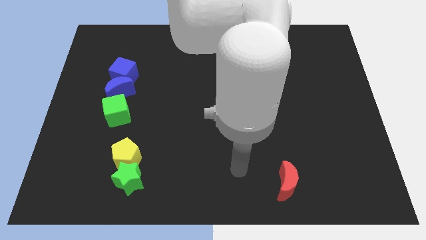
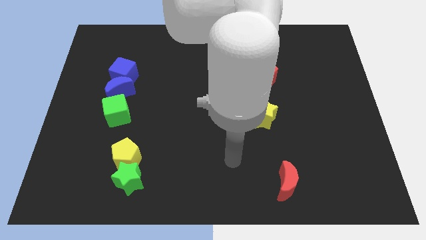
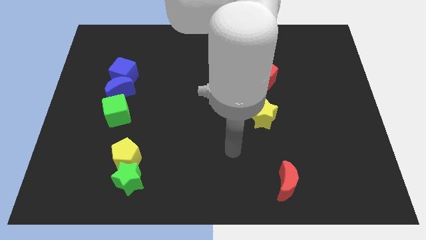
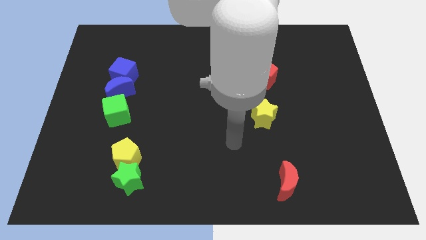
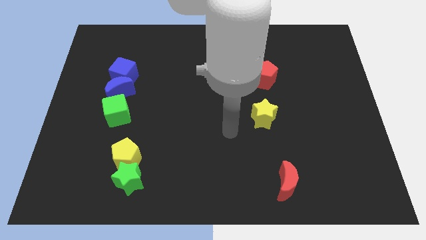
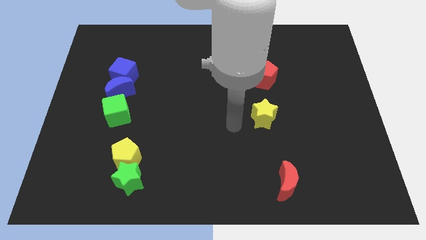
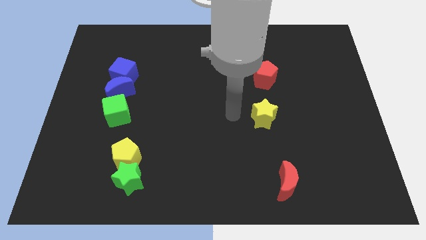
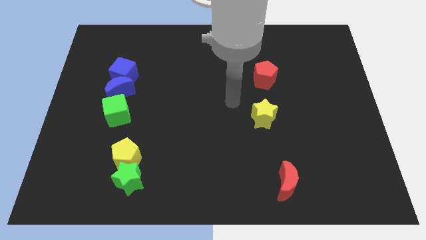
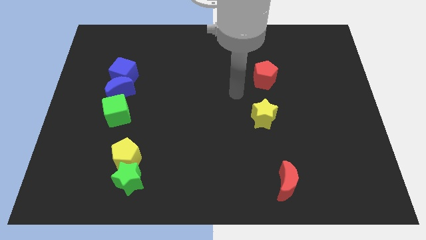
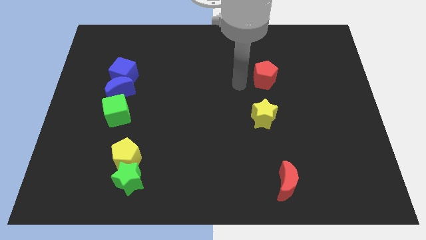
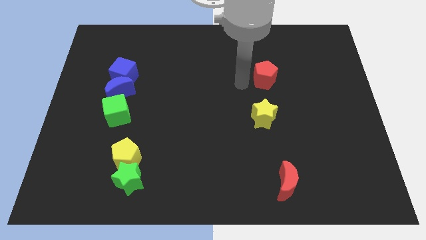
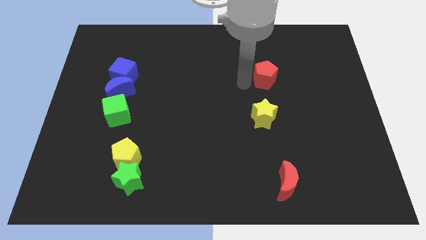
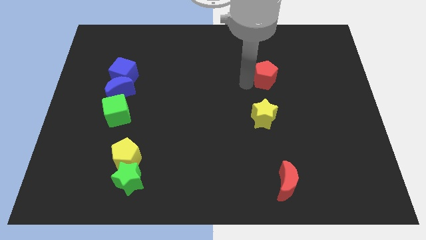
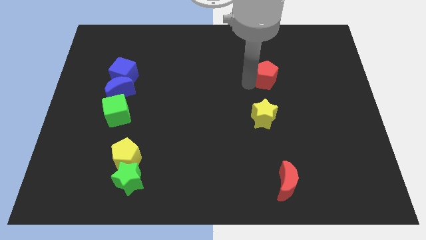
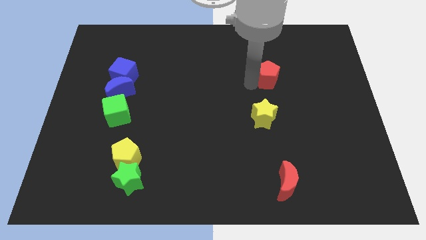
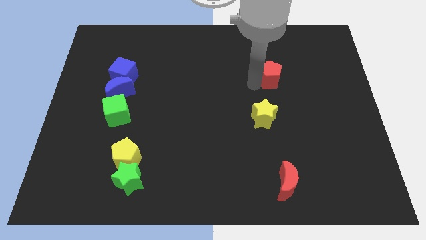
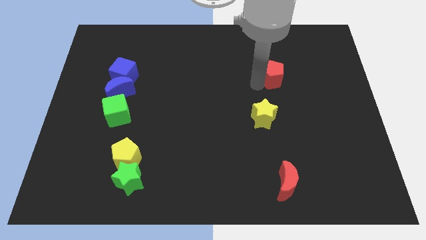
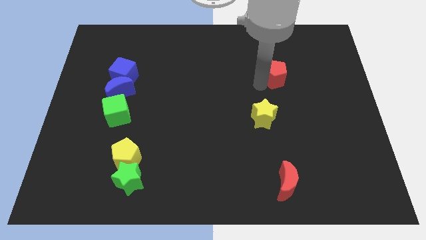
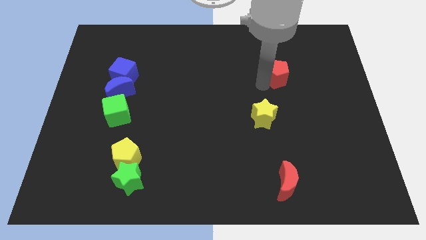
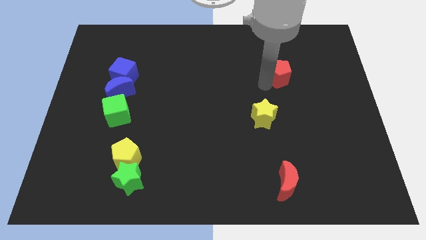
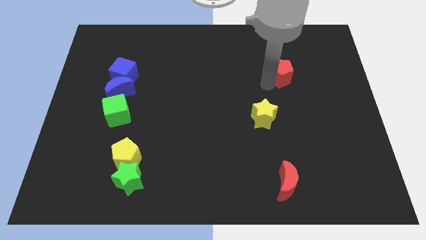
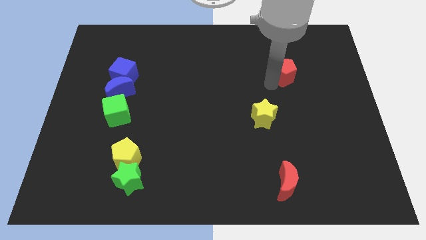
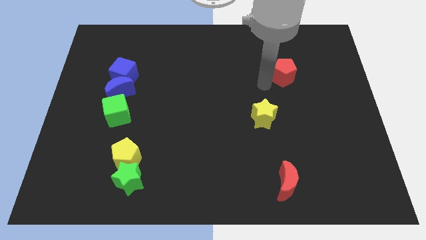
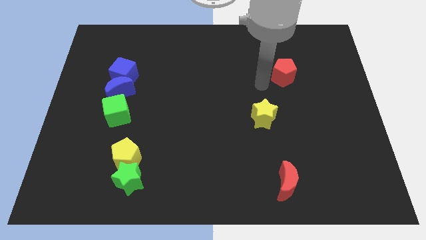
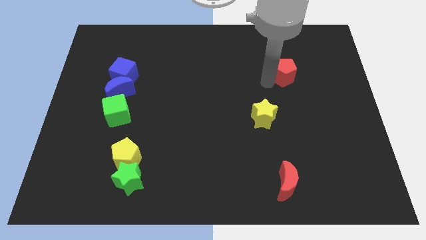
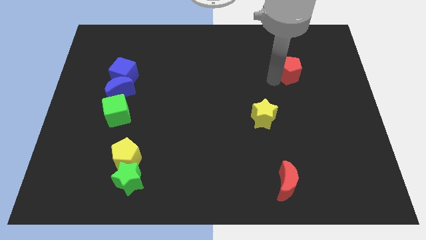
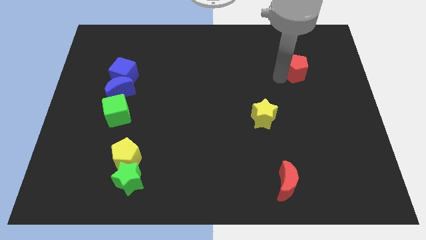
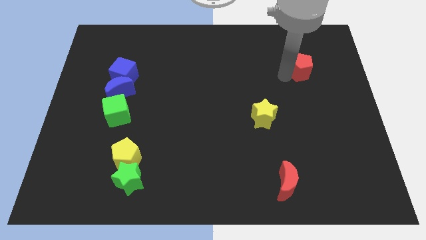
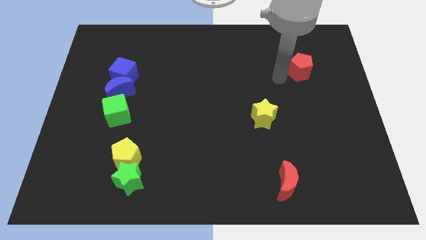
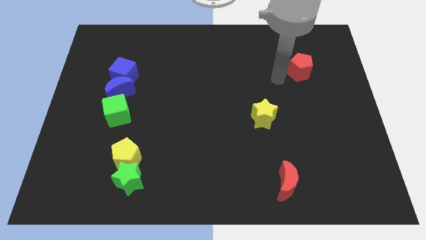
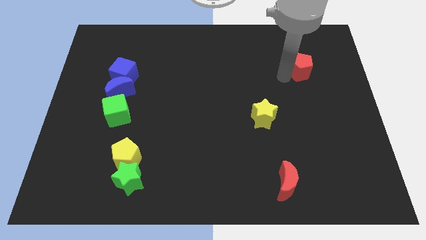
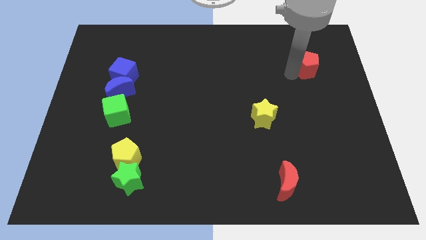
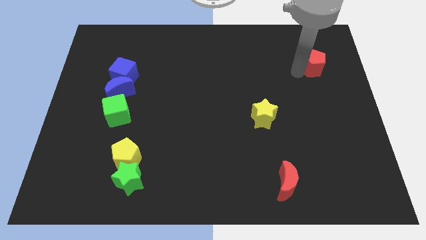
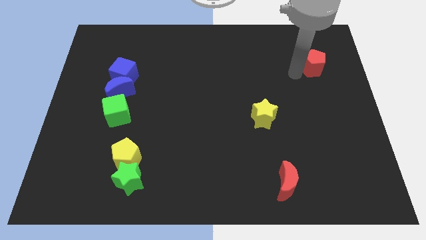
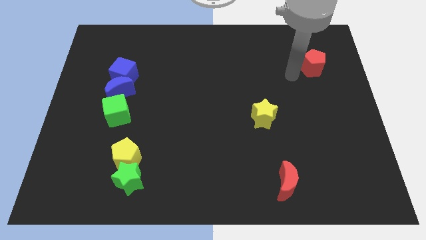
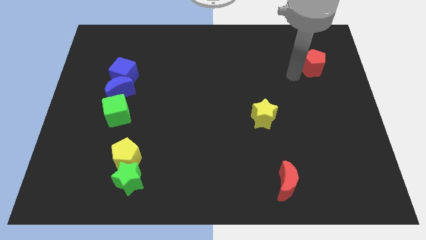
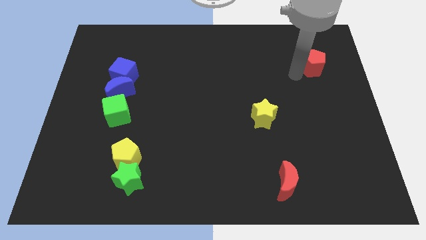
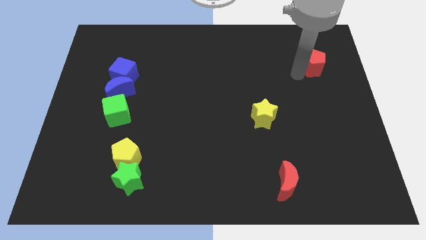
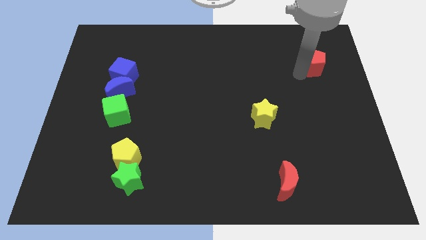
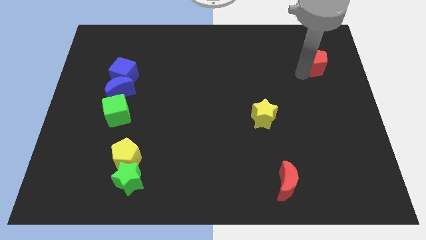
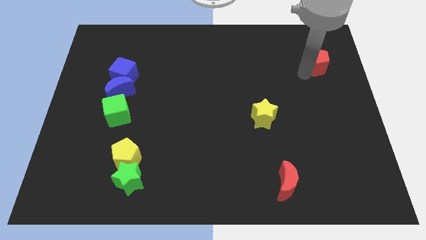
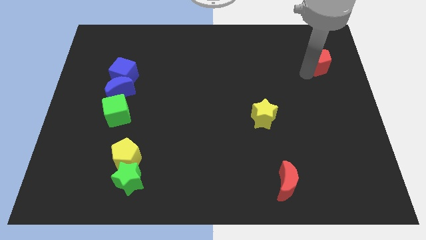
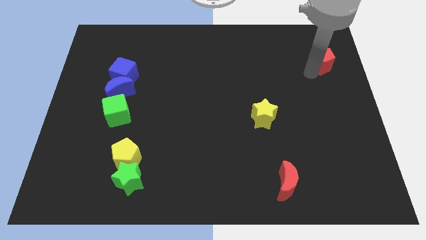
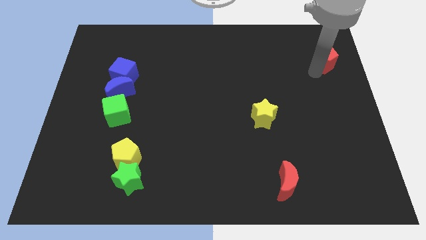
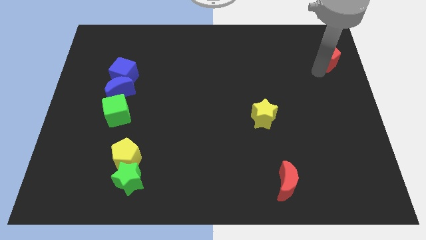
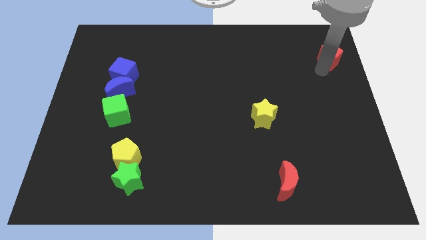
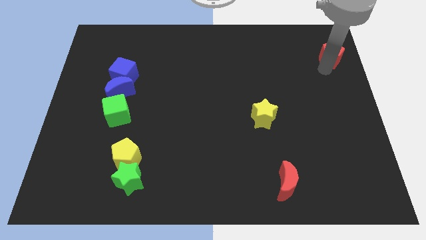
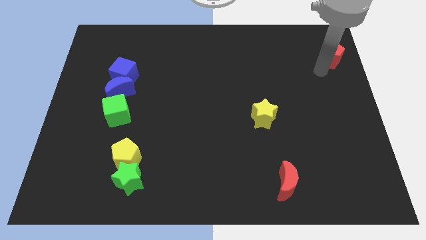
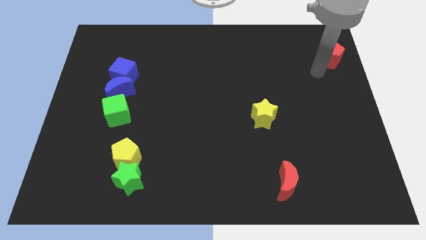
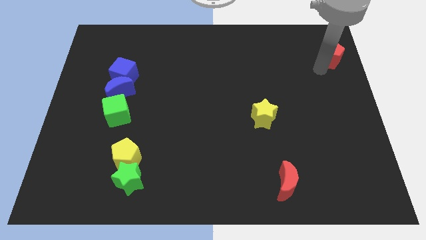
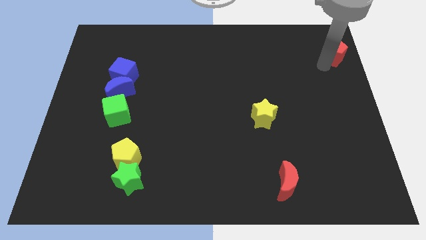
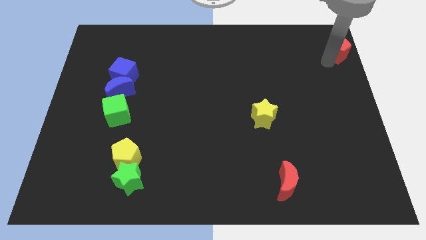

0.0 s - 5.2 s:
slide the red pentagon to the top right of the board

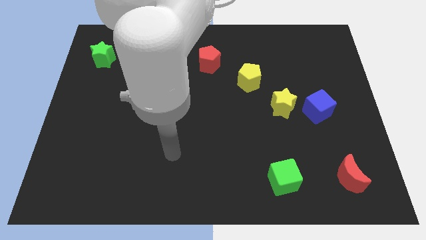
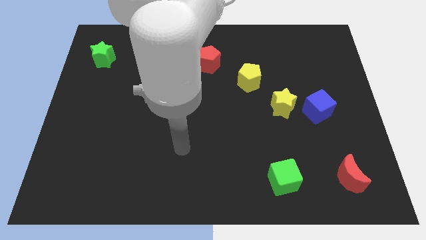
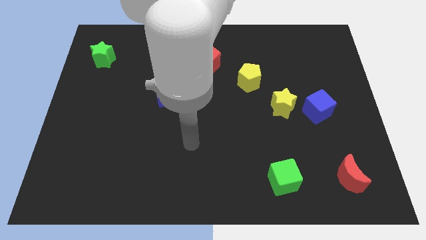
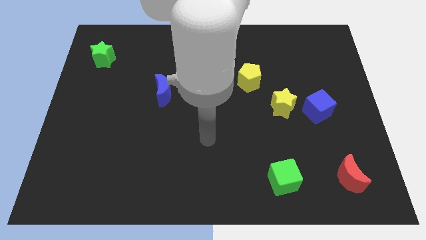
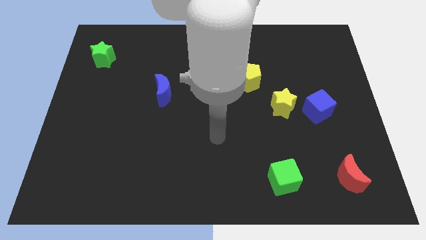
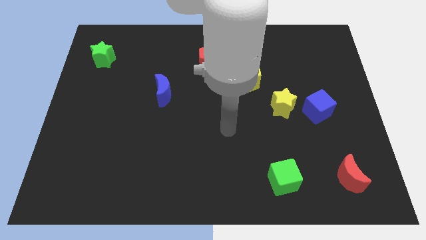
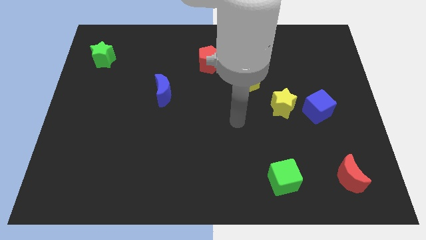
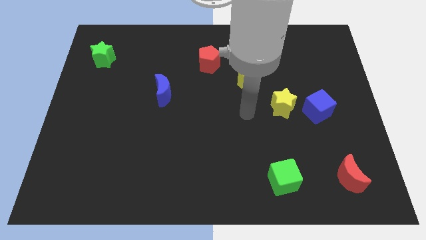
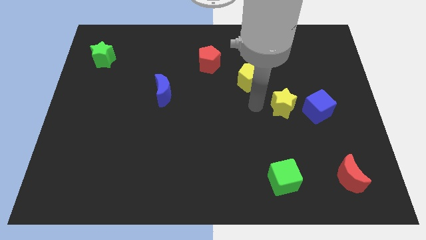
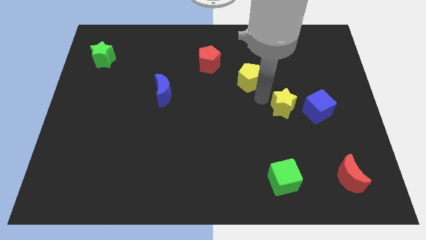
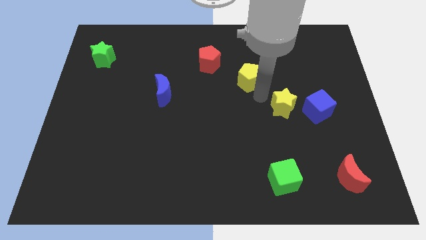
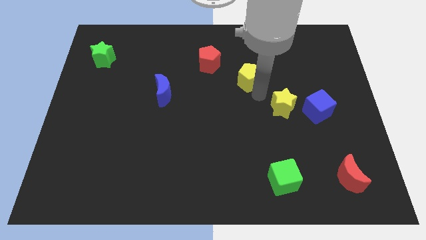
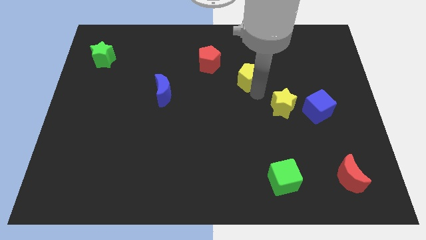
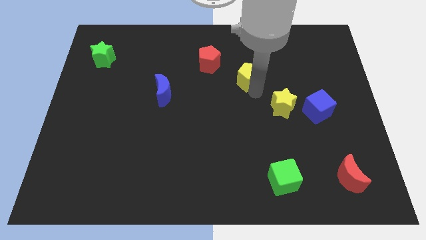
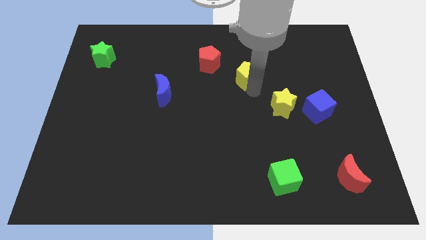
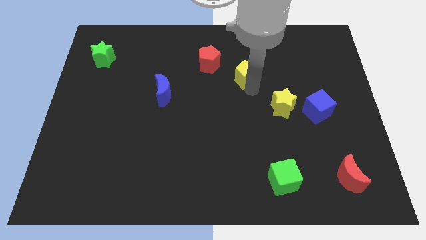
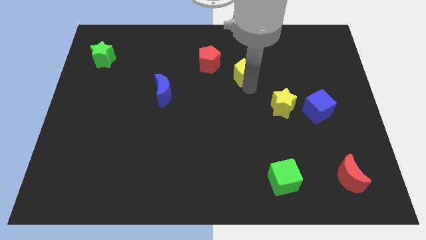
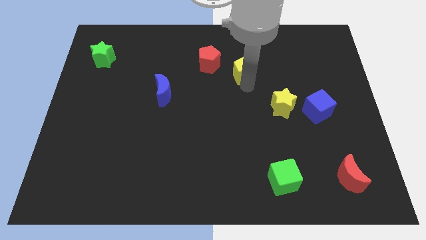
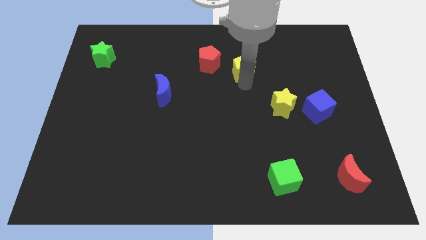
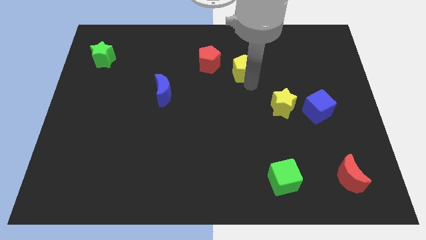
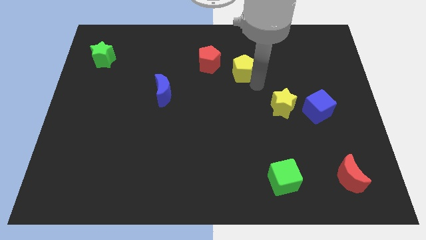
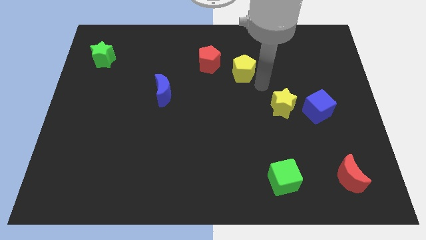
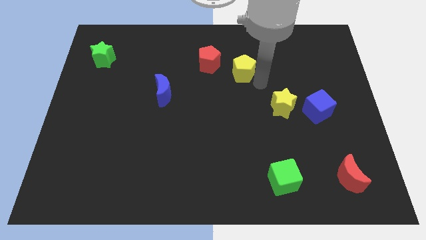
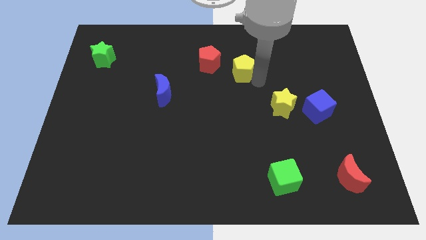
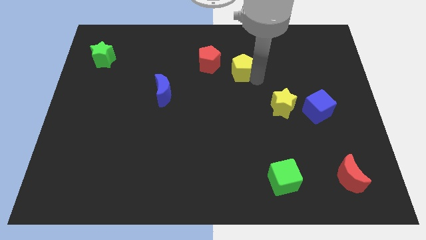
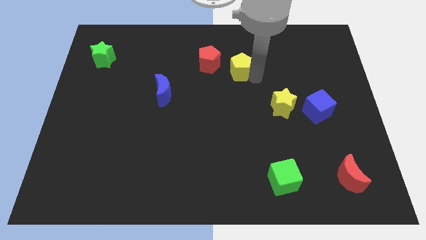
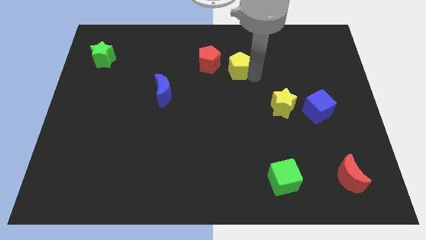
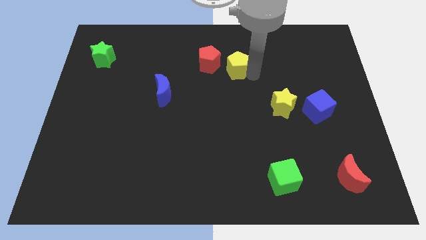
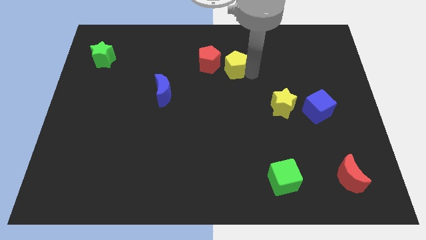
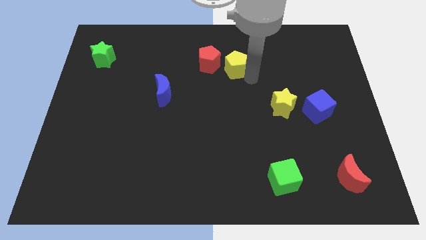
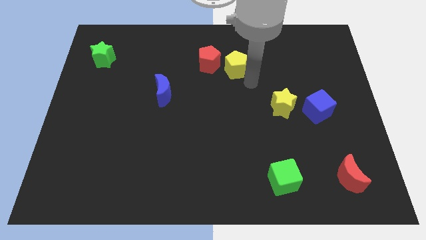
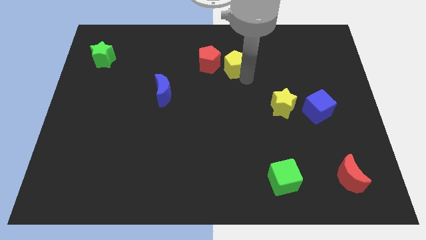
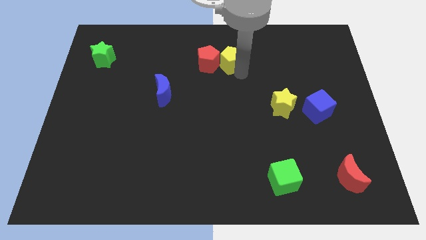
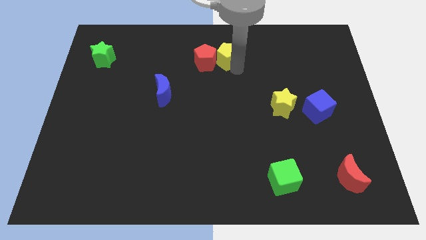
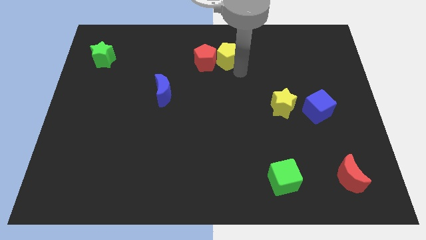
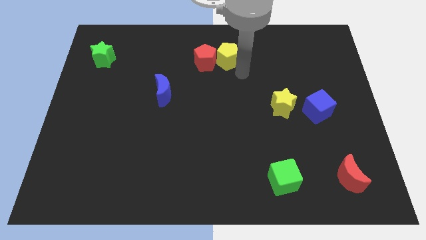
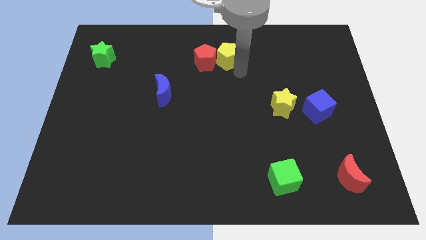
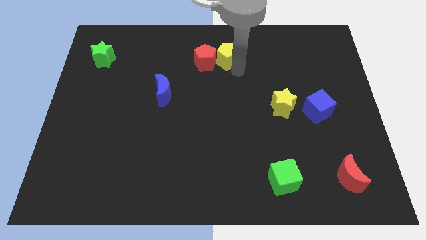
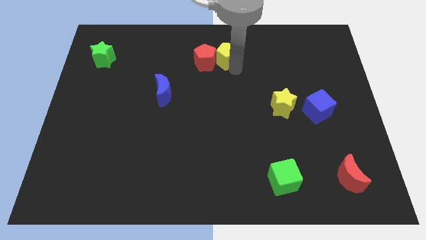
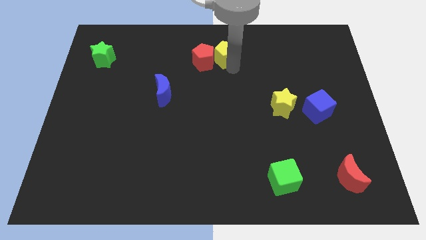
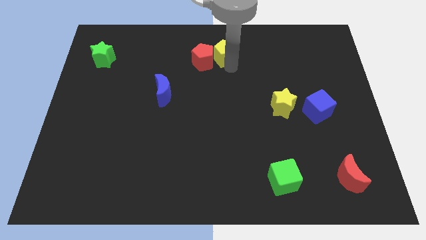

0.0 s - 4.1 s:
push the yellow pentagon to the towards your base
